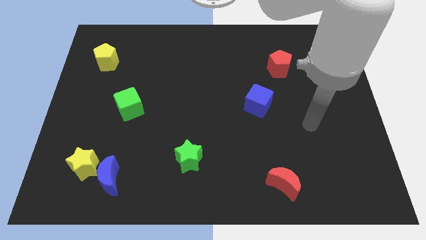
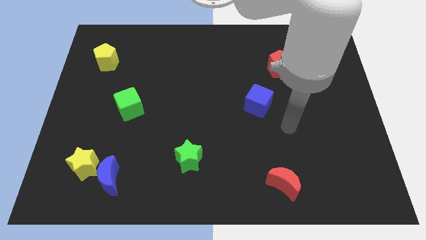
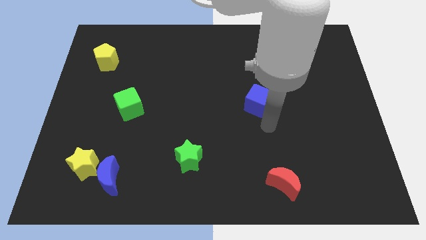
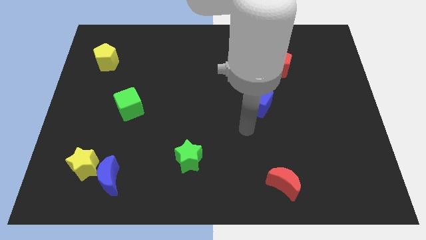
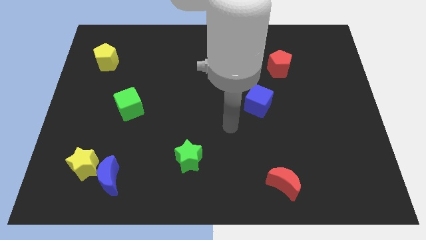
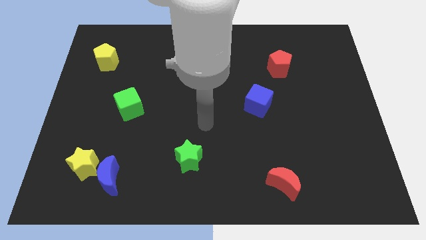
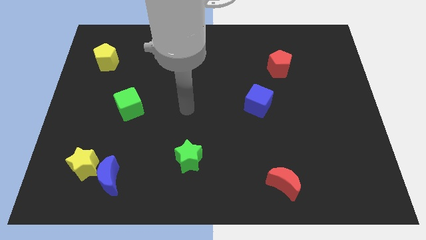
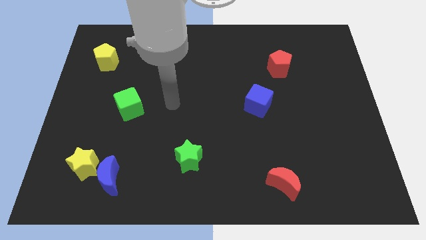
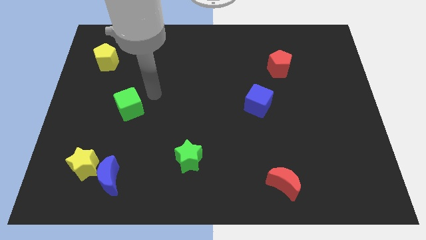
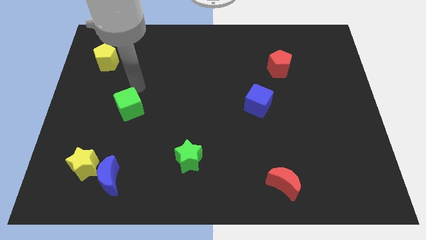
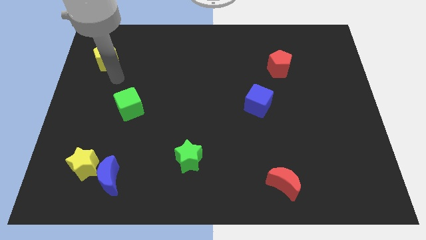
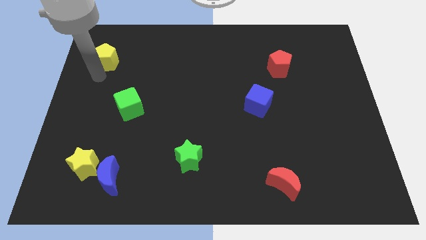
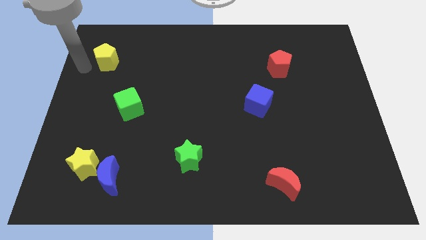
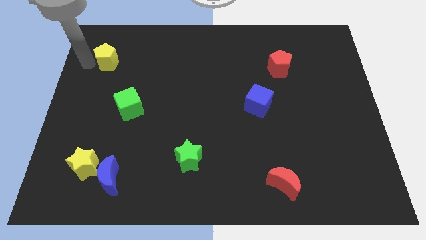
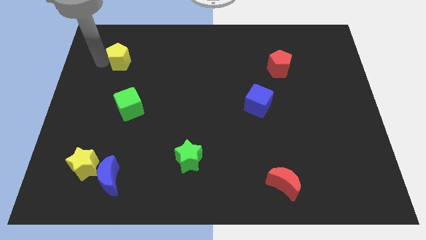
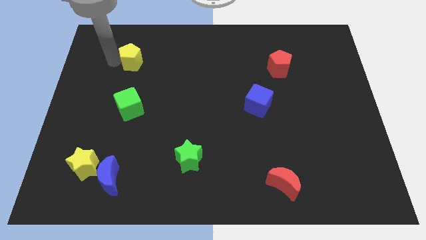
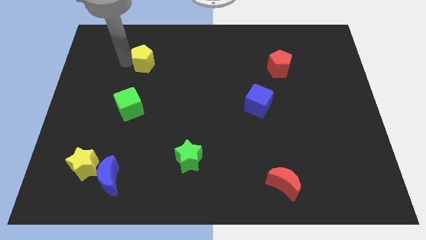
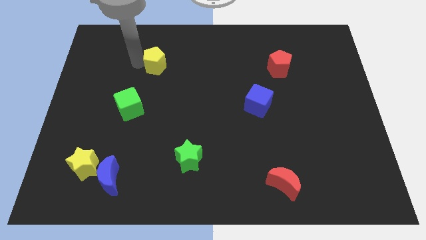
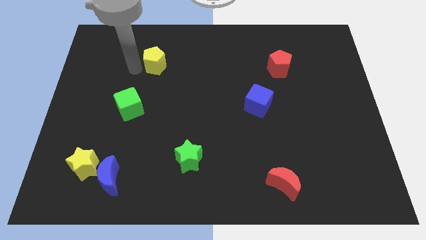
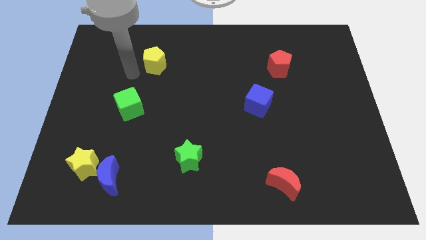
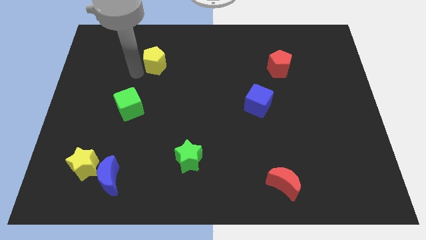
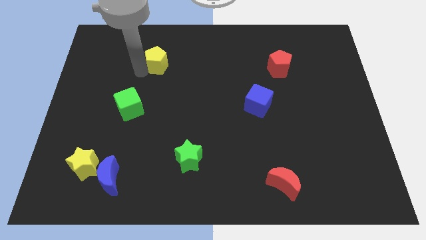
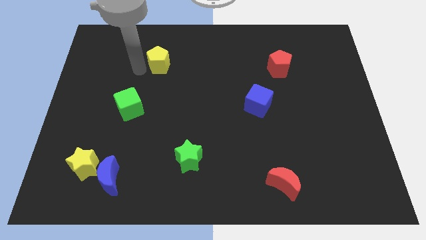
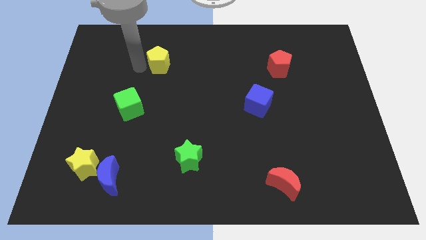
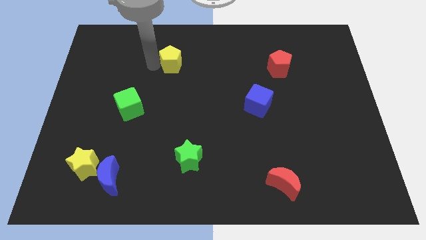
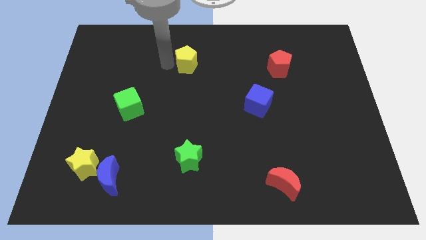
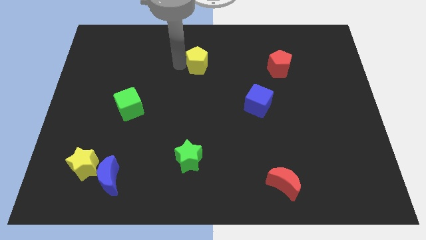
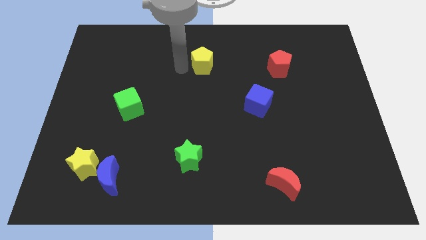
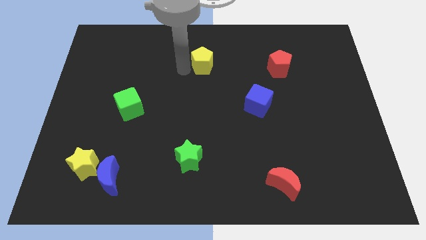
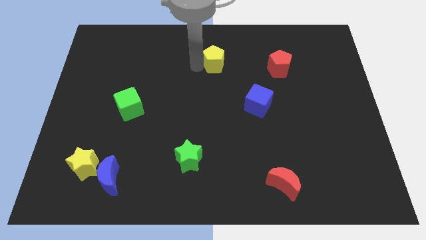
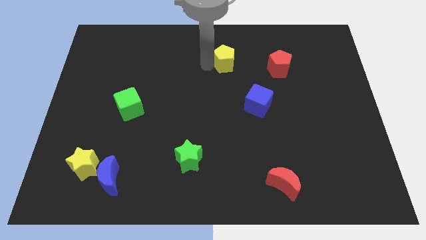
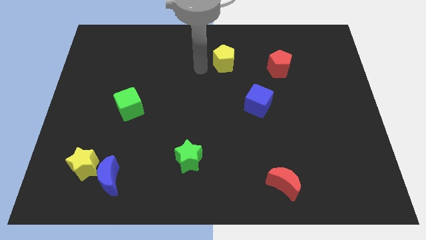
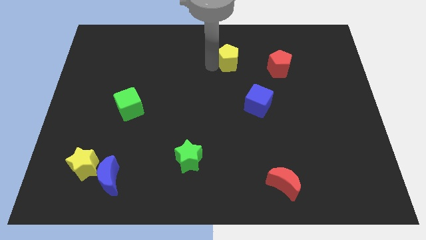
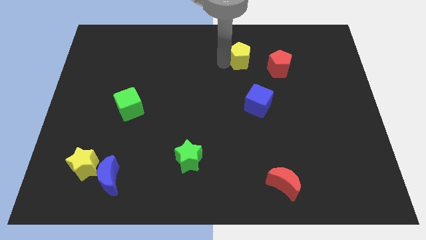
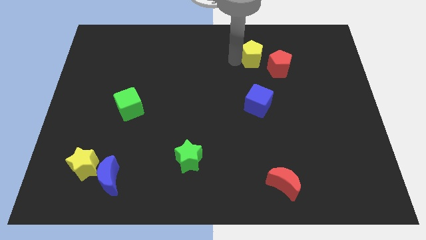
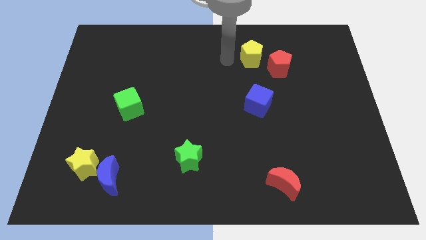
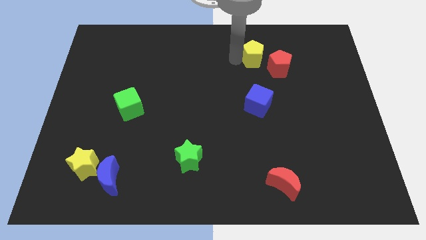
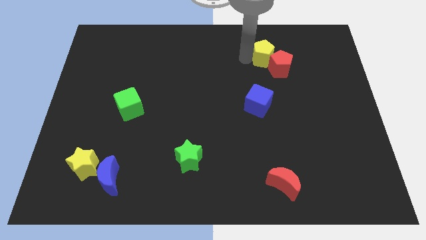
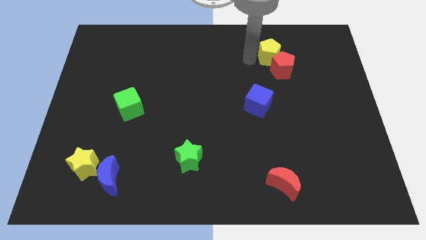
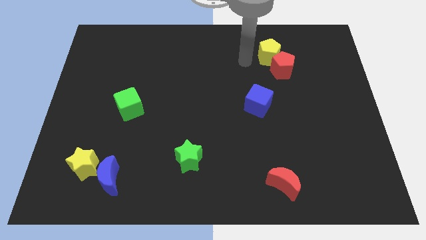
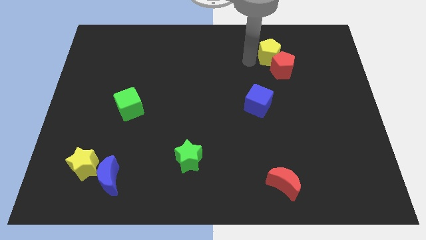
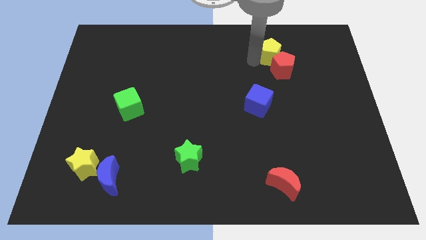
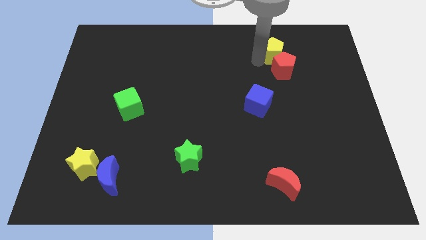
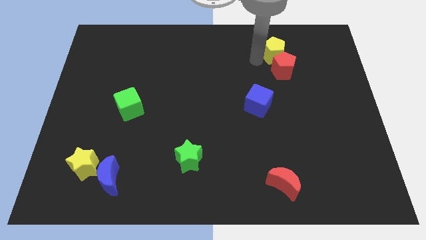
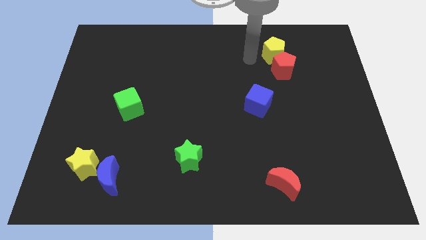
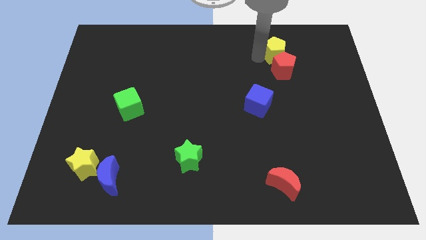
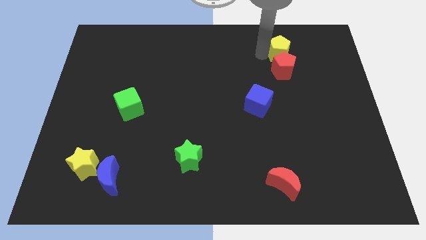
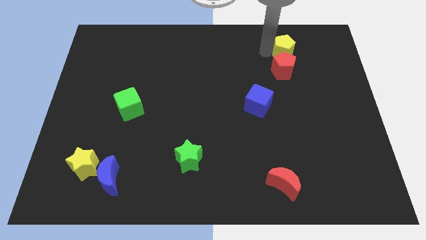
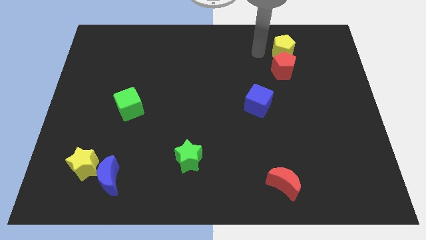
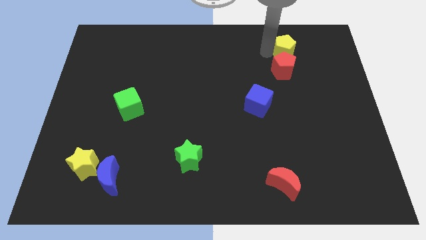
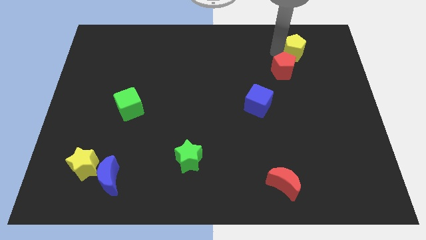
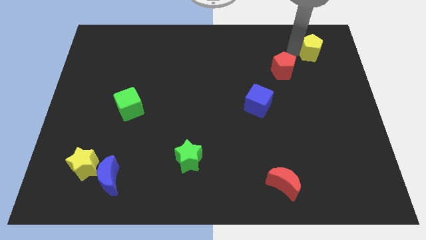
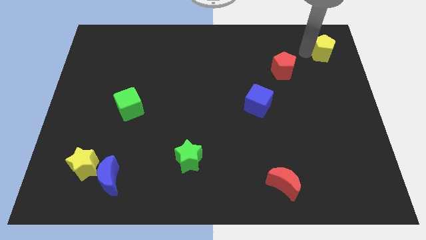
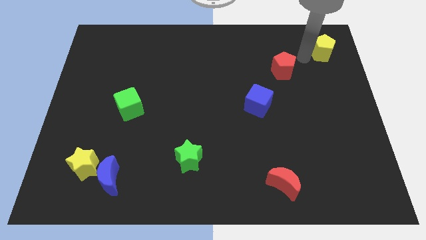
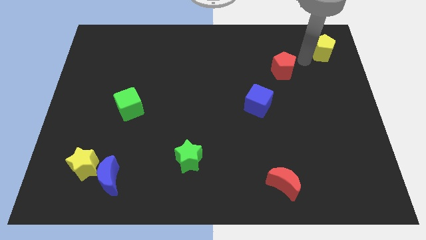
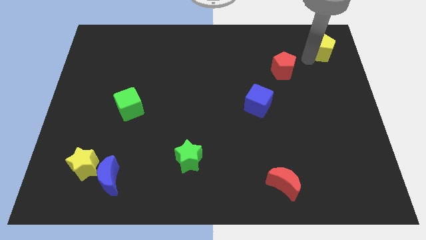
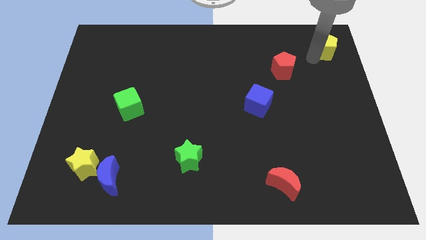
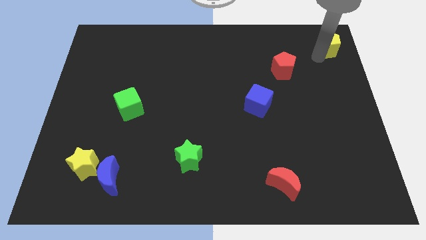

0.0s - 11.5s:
put the yellow pentagon to the top right

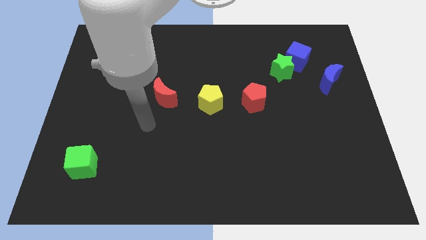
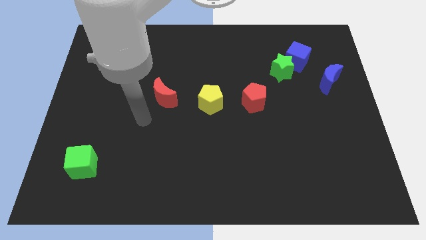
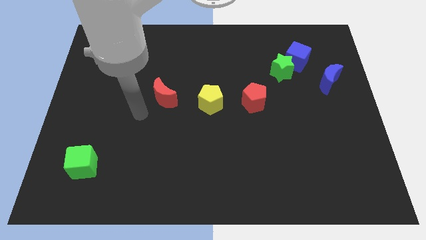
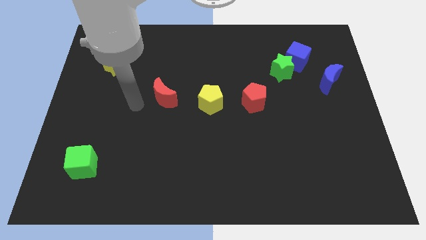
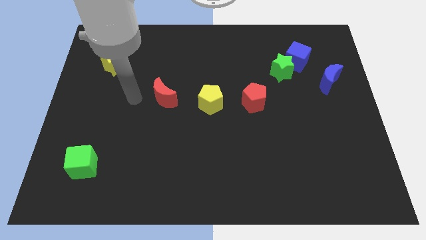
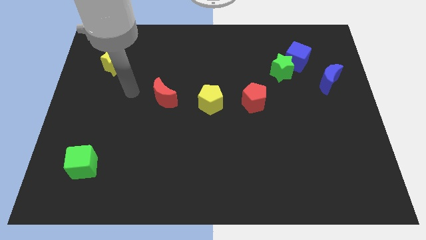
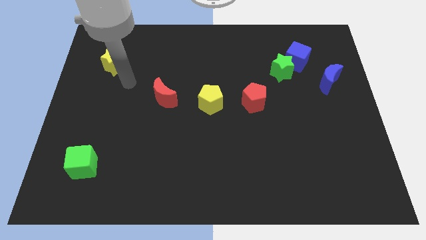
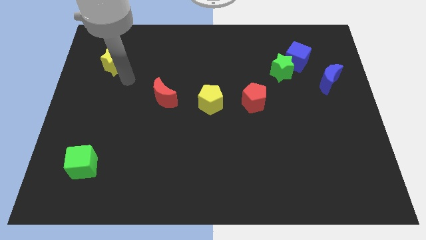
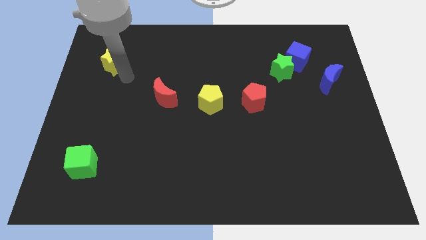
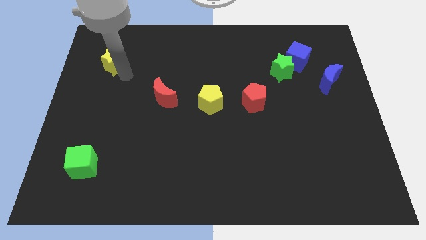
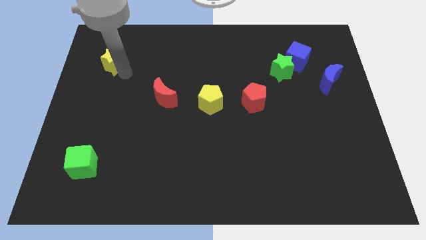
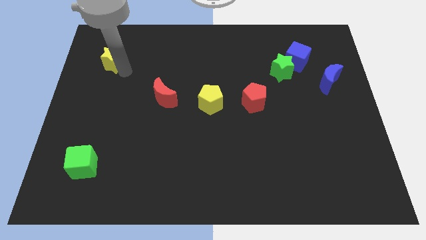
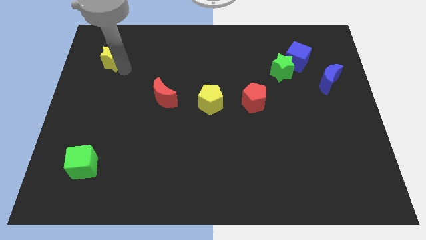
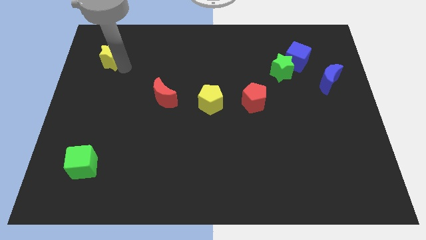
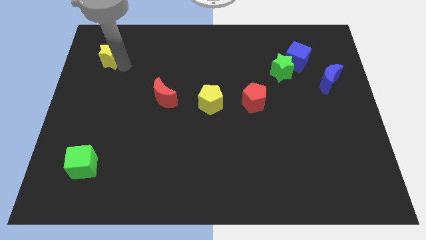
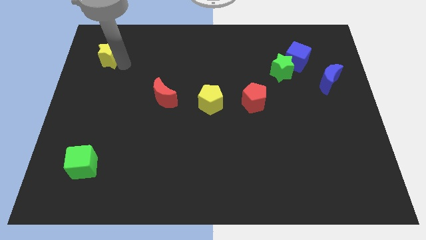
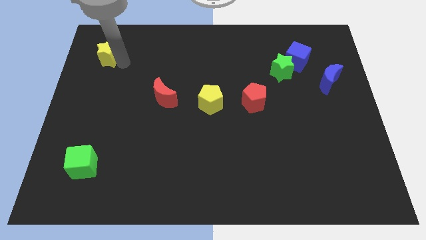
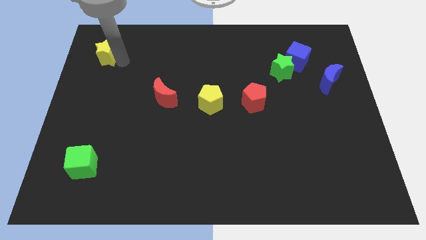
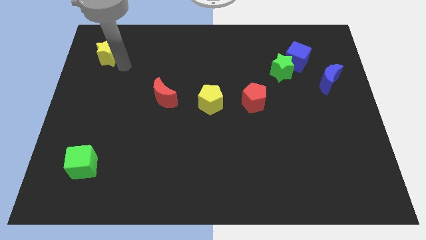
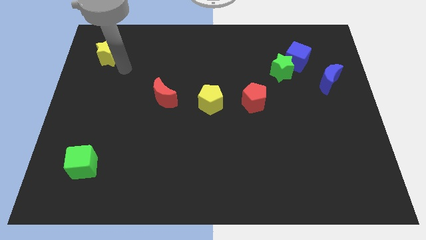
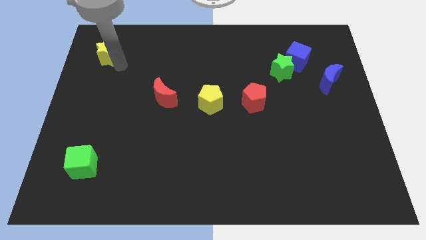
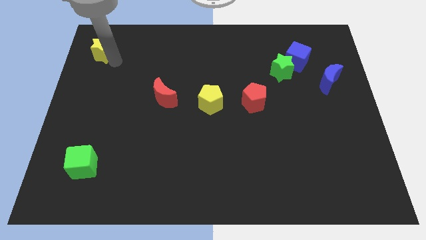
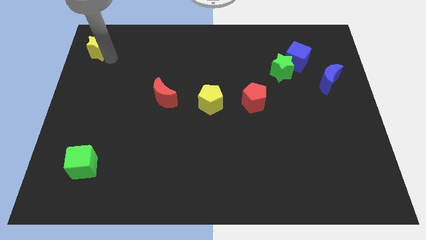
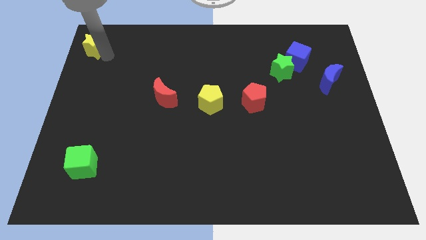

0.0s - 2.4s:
move the yellow star to the top left of the board
